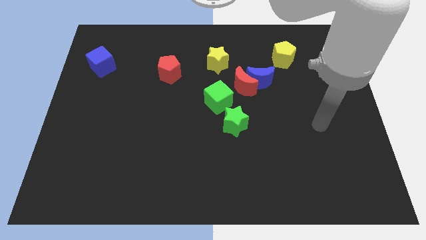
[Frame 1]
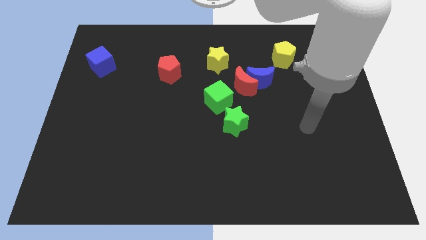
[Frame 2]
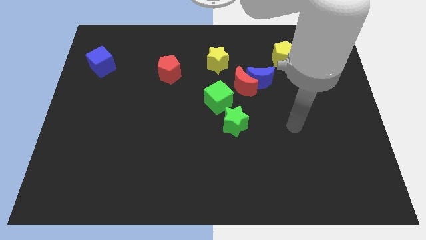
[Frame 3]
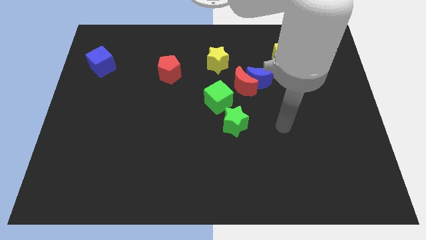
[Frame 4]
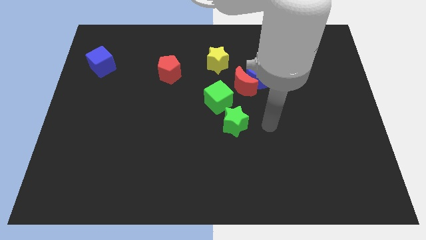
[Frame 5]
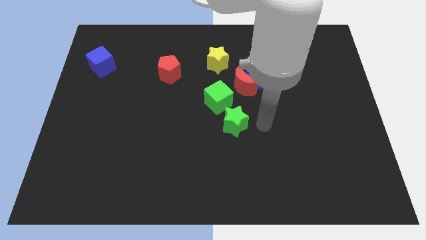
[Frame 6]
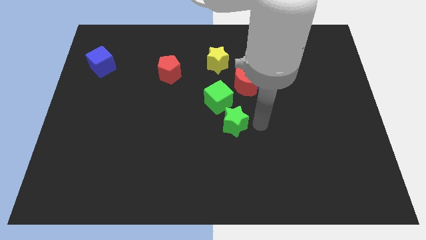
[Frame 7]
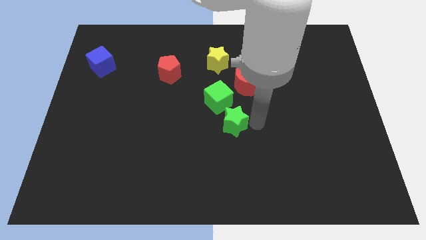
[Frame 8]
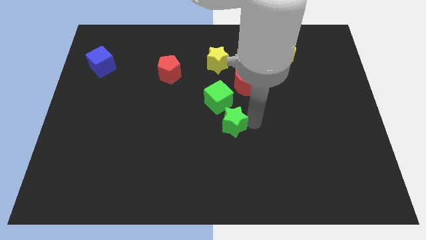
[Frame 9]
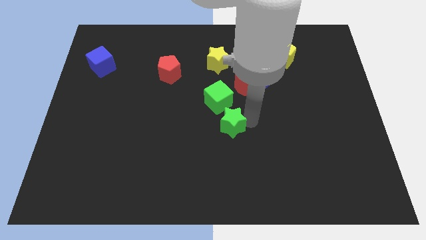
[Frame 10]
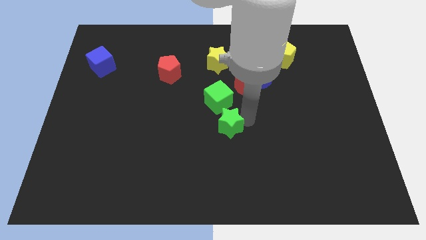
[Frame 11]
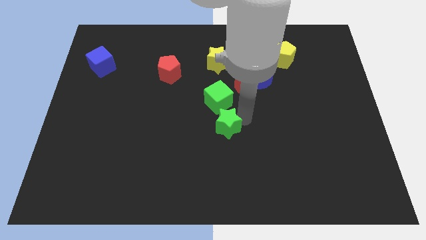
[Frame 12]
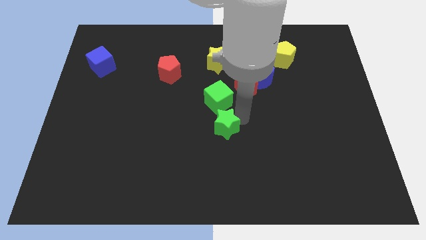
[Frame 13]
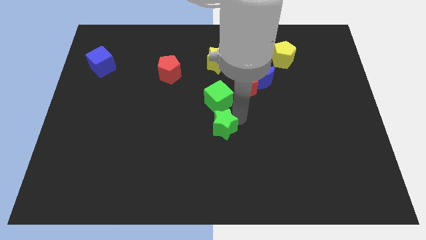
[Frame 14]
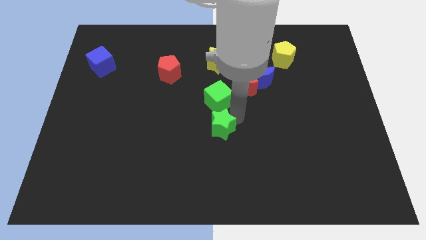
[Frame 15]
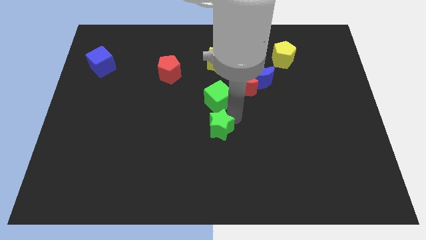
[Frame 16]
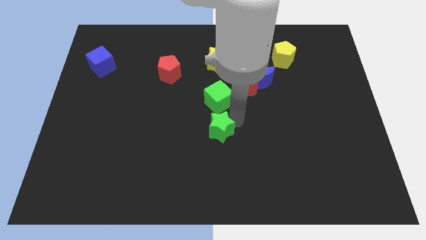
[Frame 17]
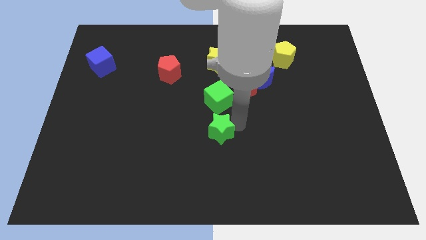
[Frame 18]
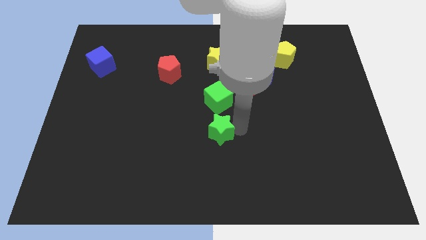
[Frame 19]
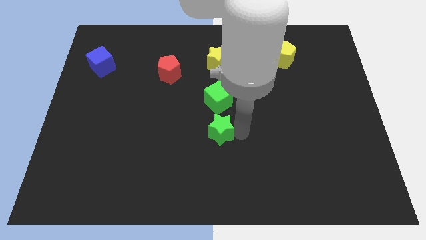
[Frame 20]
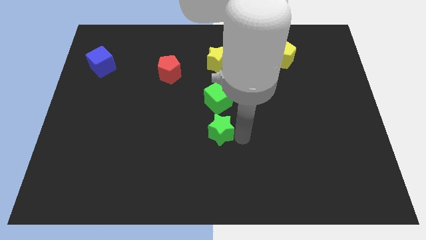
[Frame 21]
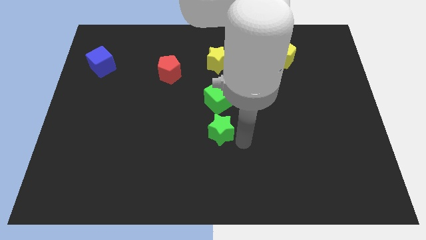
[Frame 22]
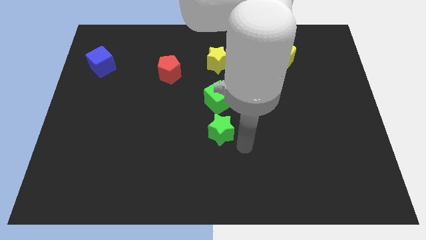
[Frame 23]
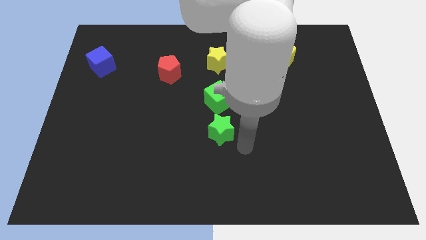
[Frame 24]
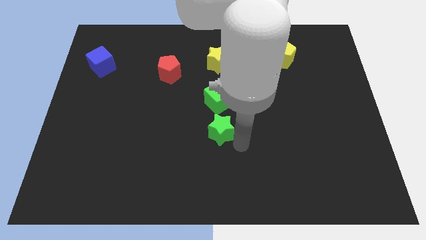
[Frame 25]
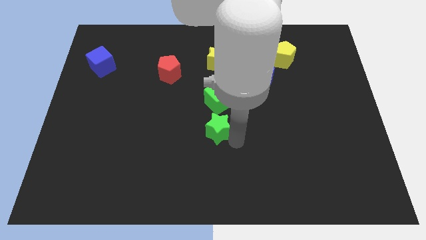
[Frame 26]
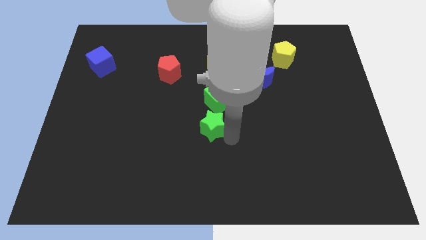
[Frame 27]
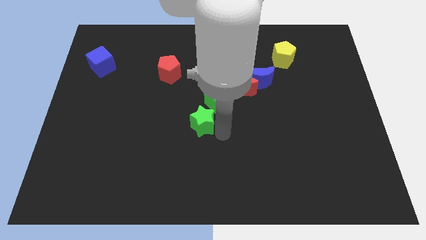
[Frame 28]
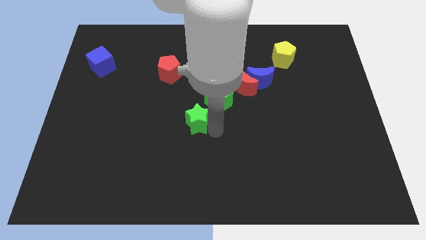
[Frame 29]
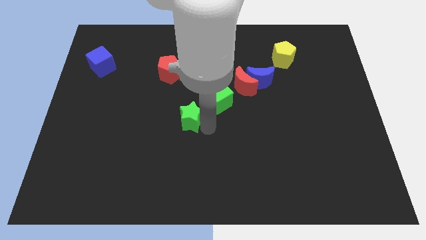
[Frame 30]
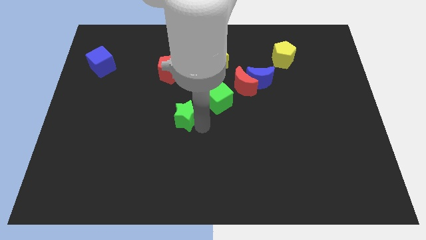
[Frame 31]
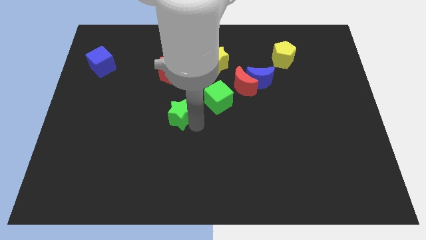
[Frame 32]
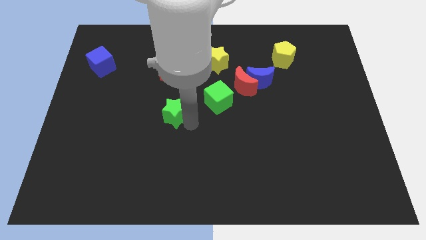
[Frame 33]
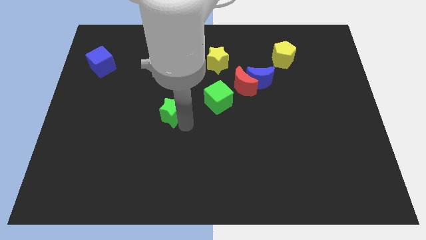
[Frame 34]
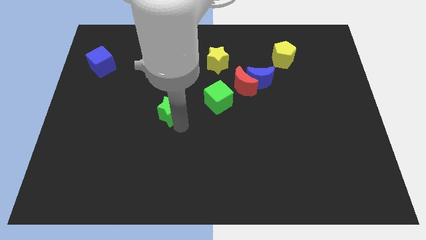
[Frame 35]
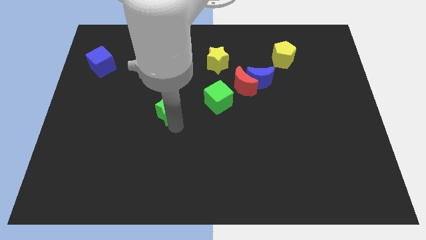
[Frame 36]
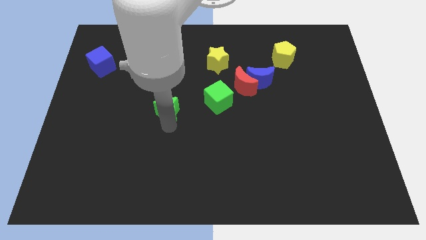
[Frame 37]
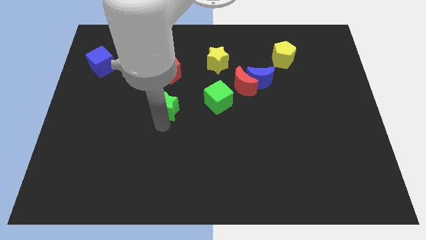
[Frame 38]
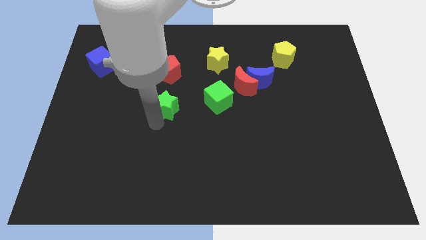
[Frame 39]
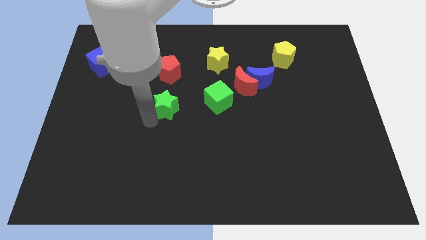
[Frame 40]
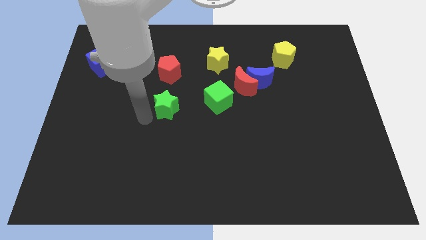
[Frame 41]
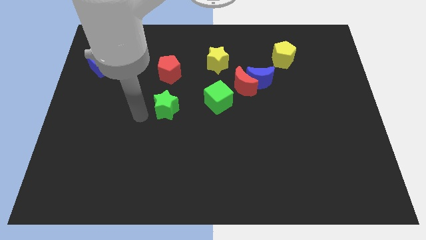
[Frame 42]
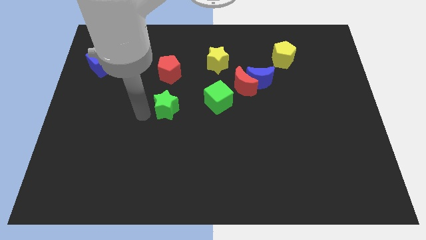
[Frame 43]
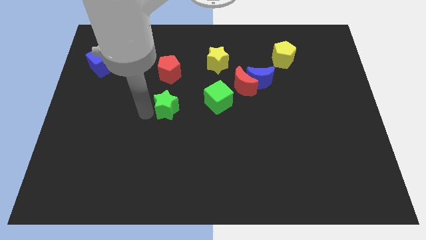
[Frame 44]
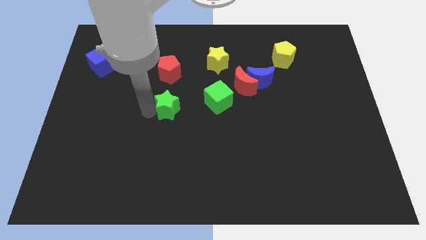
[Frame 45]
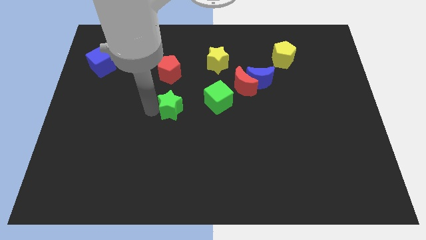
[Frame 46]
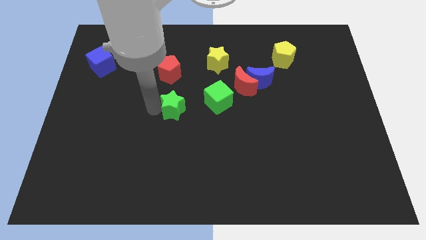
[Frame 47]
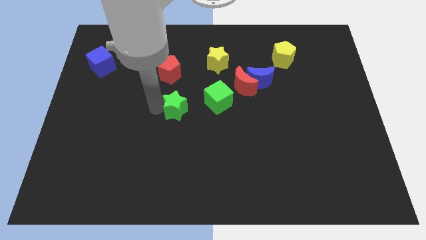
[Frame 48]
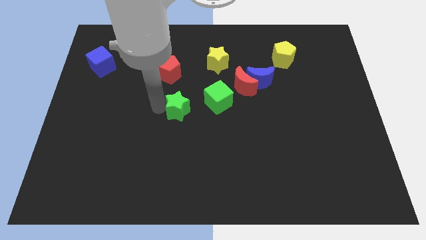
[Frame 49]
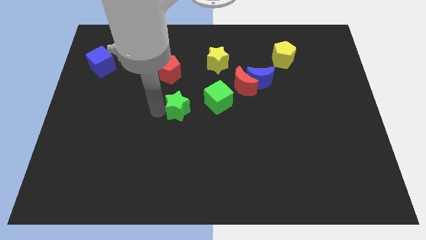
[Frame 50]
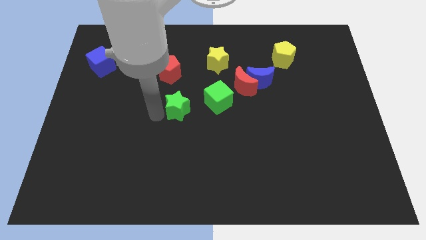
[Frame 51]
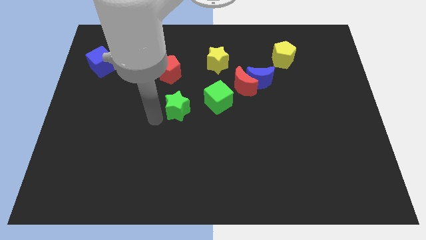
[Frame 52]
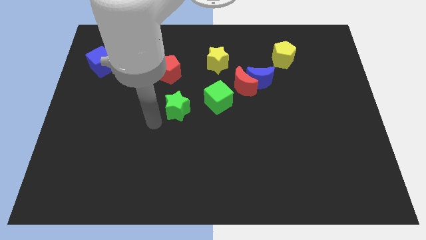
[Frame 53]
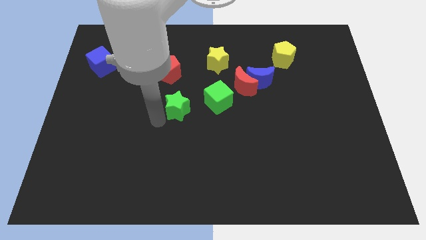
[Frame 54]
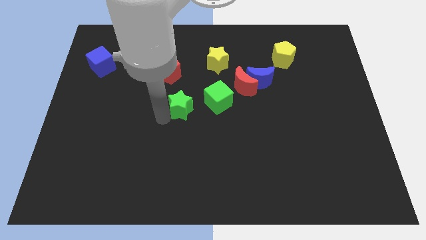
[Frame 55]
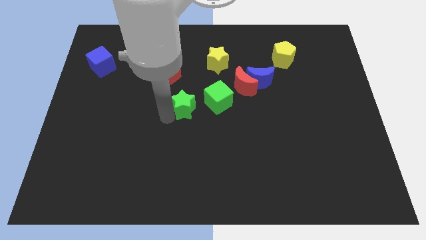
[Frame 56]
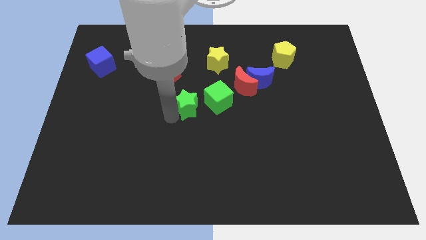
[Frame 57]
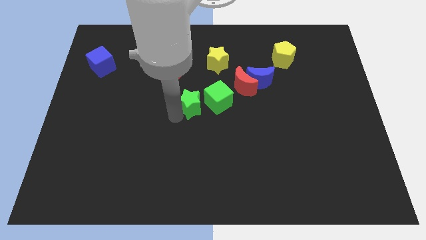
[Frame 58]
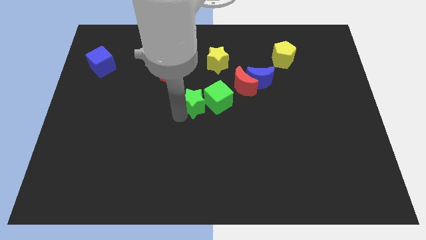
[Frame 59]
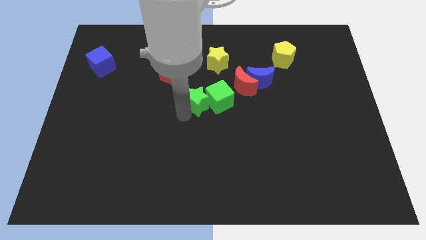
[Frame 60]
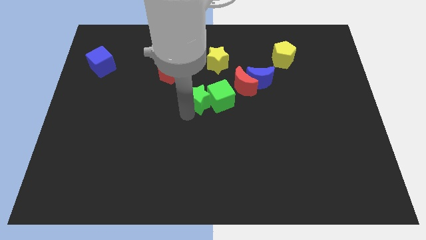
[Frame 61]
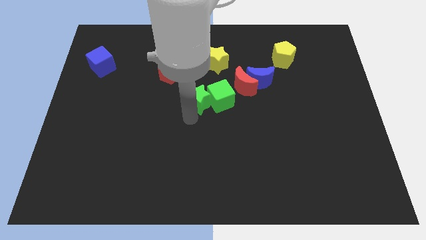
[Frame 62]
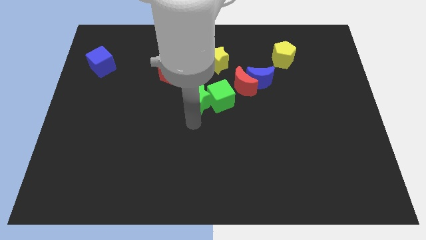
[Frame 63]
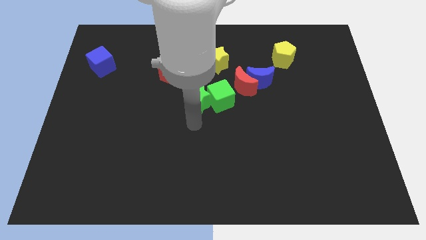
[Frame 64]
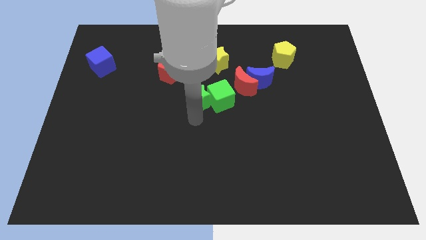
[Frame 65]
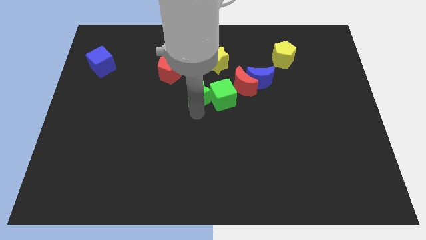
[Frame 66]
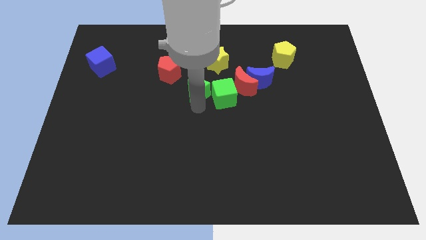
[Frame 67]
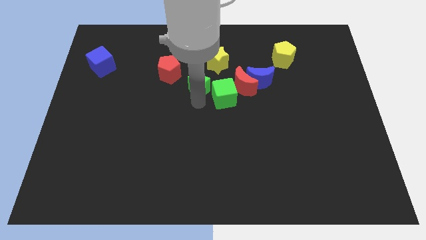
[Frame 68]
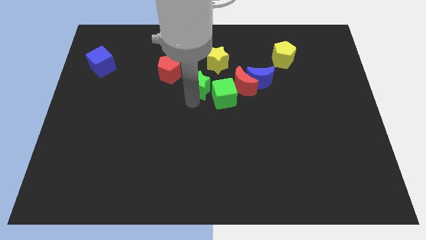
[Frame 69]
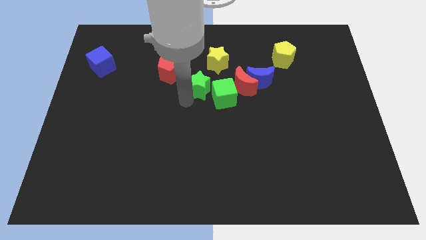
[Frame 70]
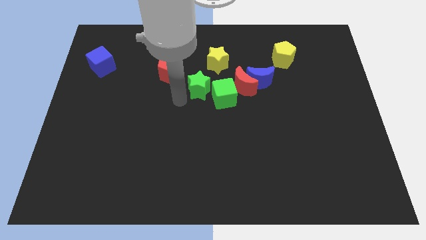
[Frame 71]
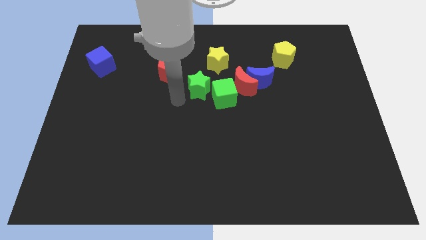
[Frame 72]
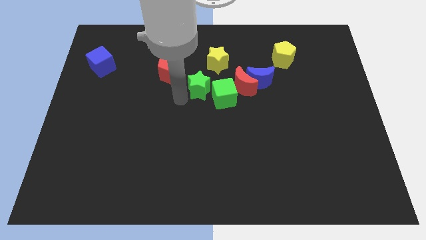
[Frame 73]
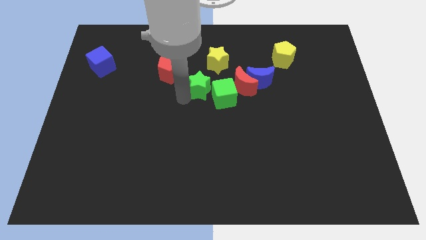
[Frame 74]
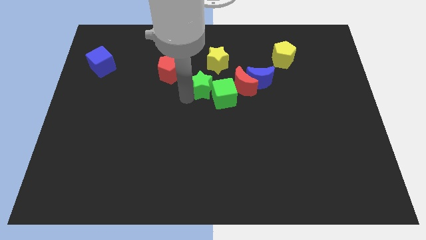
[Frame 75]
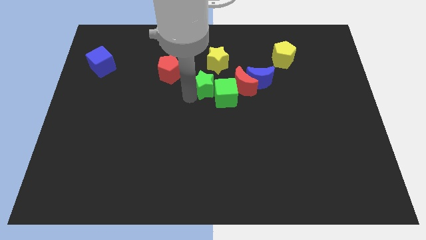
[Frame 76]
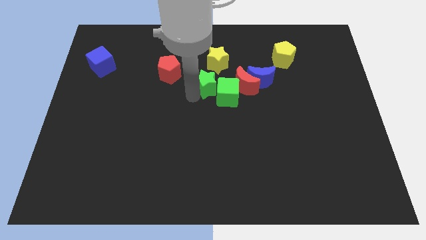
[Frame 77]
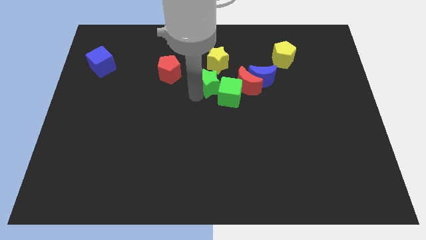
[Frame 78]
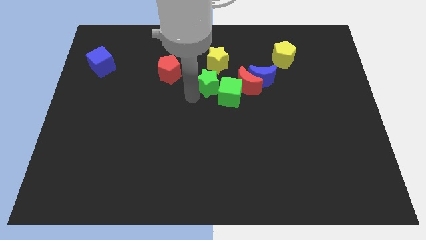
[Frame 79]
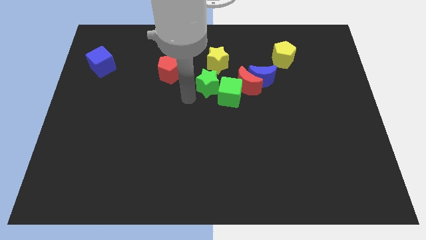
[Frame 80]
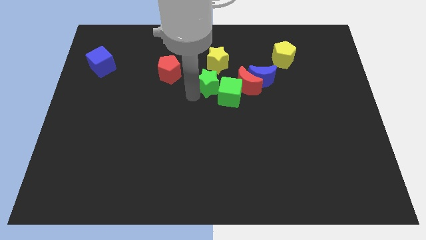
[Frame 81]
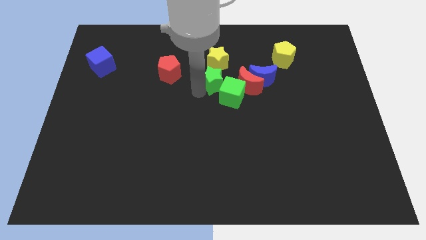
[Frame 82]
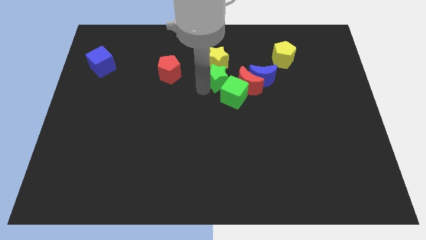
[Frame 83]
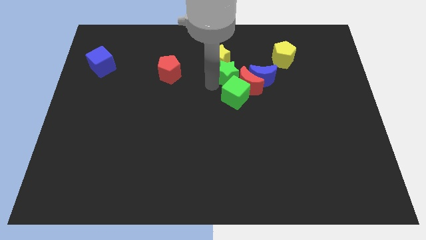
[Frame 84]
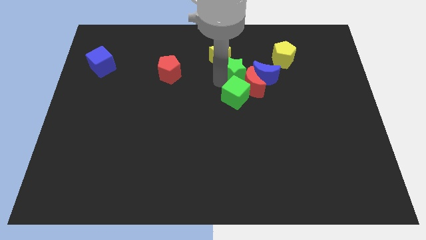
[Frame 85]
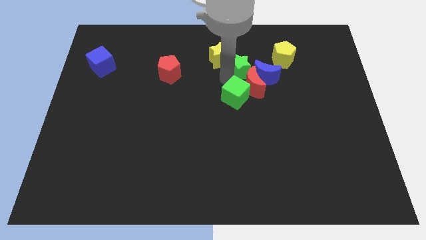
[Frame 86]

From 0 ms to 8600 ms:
slide the green star just left of the yellow pentagon
